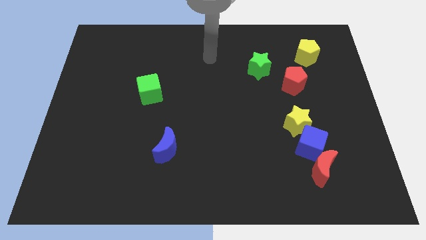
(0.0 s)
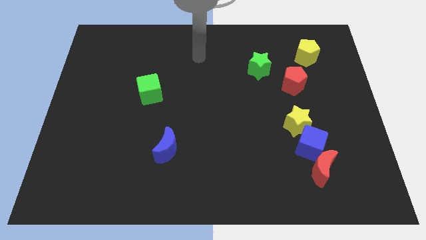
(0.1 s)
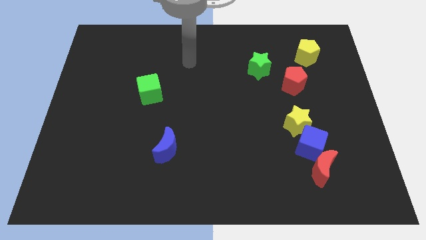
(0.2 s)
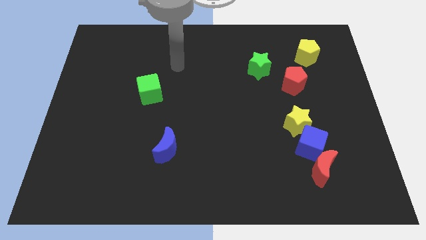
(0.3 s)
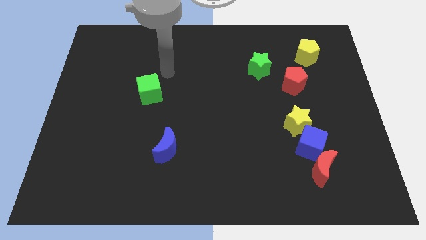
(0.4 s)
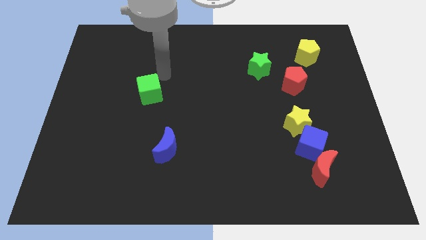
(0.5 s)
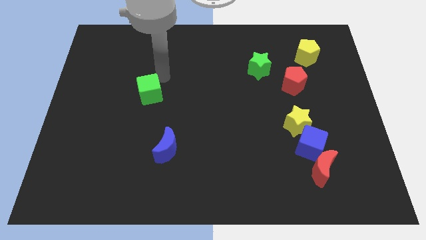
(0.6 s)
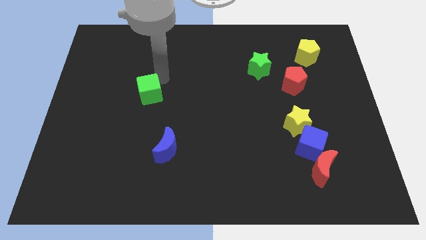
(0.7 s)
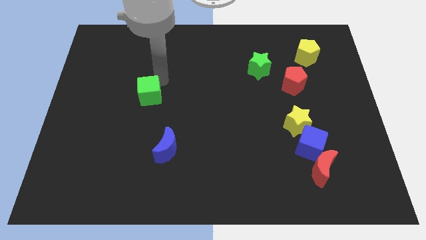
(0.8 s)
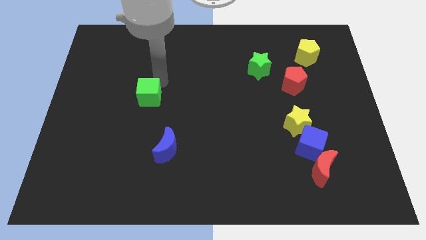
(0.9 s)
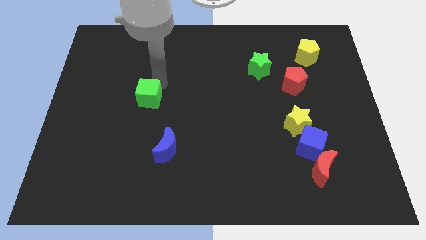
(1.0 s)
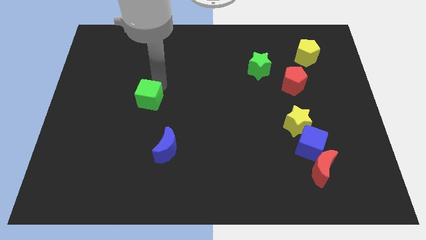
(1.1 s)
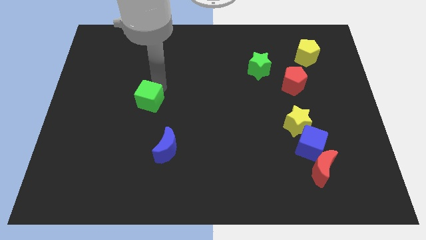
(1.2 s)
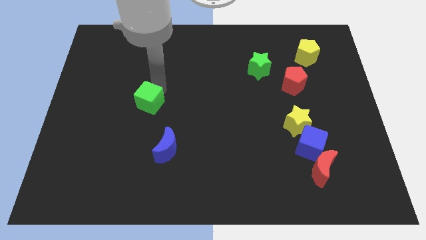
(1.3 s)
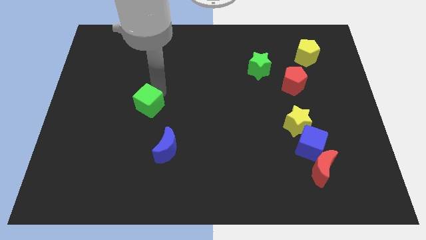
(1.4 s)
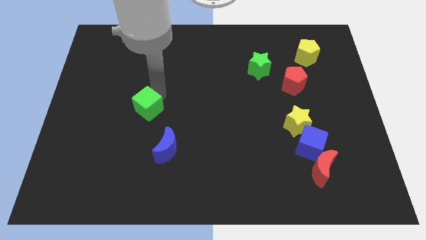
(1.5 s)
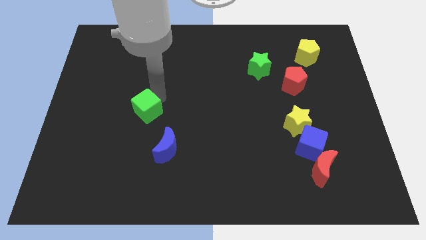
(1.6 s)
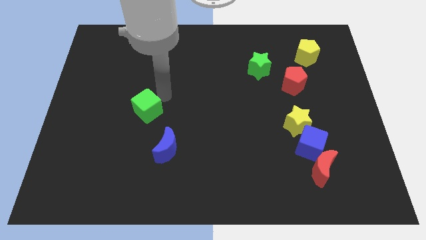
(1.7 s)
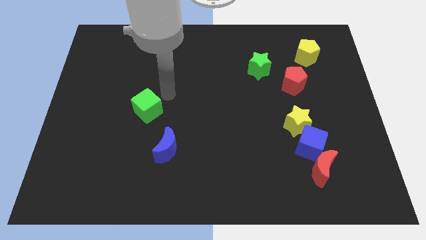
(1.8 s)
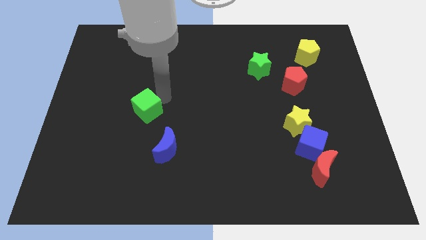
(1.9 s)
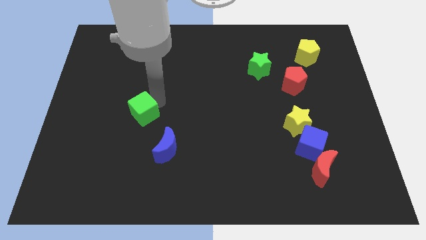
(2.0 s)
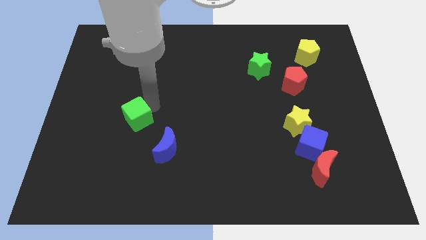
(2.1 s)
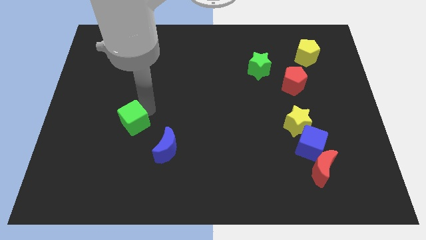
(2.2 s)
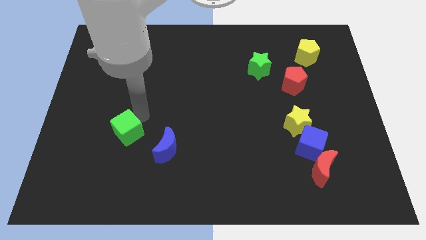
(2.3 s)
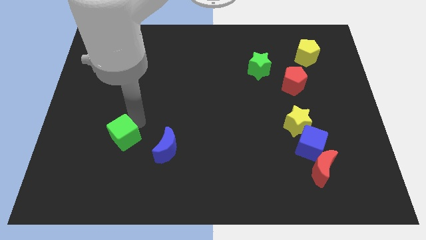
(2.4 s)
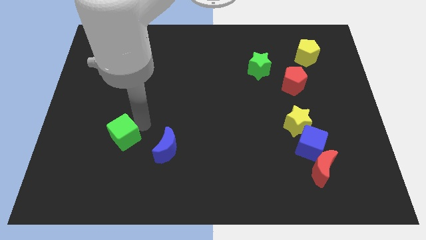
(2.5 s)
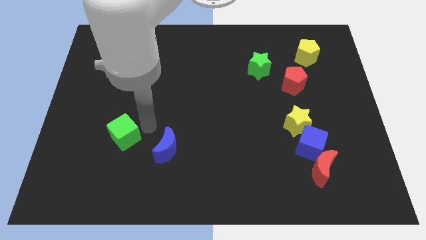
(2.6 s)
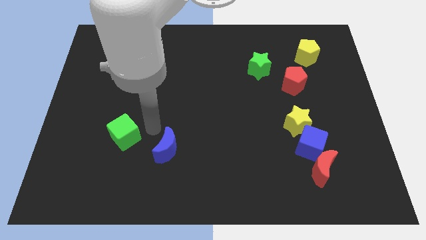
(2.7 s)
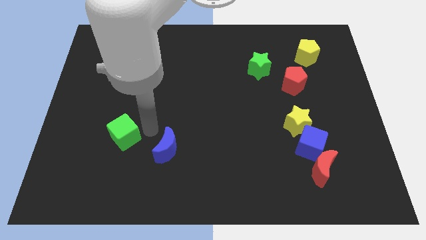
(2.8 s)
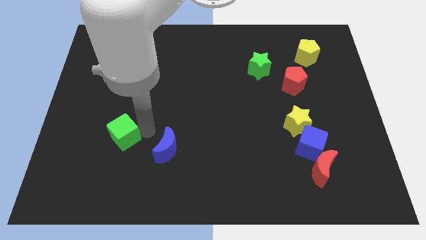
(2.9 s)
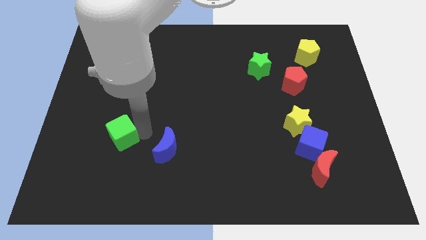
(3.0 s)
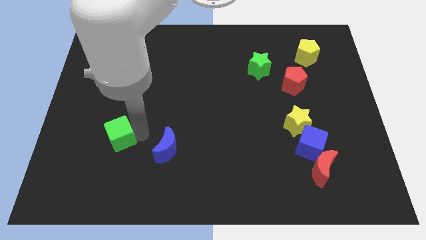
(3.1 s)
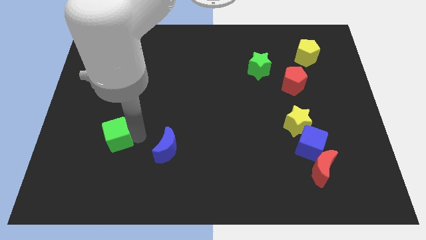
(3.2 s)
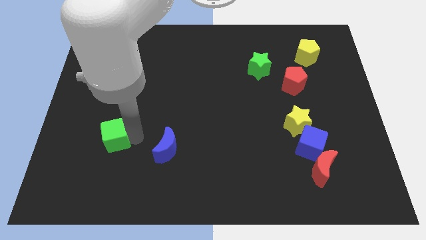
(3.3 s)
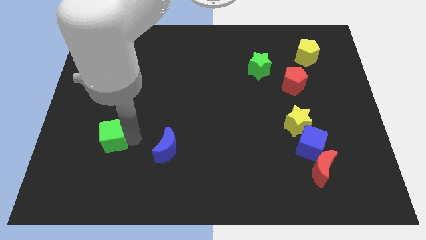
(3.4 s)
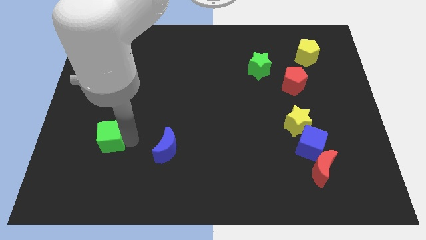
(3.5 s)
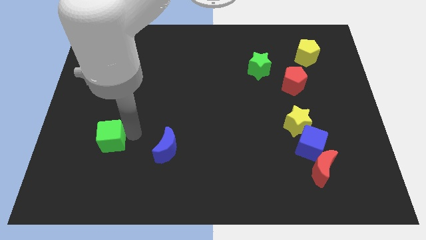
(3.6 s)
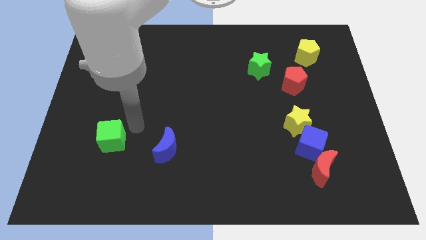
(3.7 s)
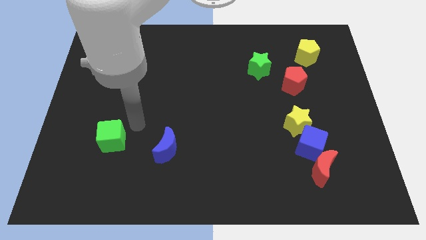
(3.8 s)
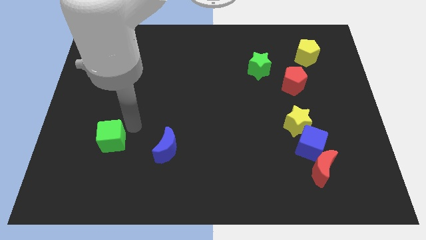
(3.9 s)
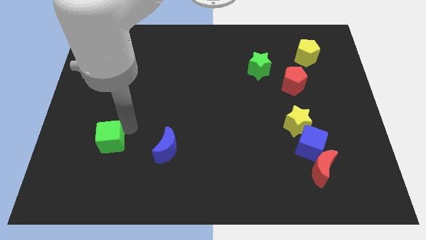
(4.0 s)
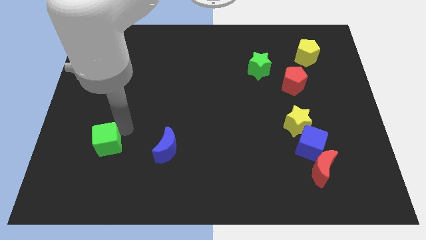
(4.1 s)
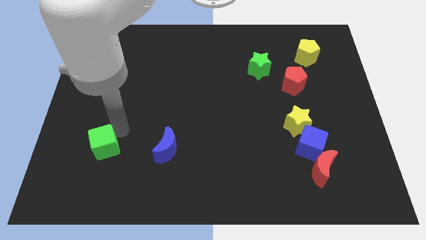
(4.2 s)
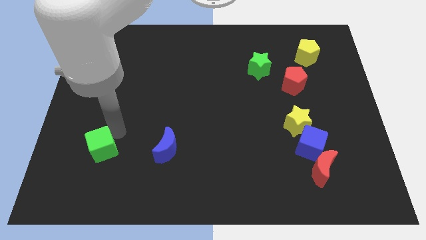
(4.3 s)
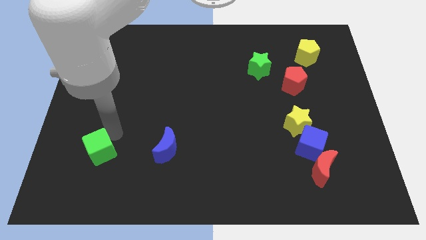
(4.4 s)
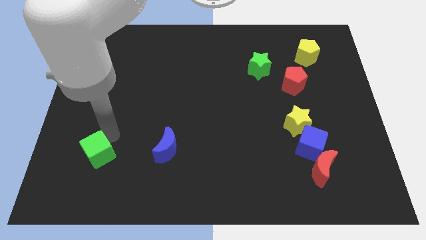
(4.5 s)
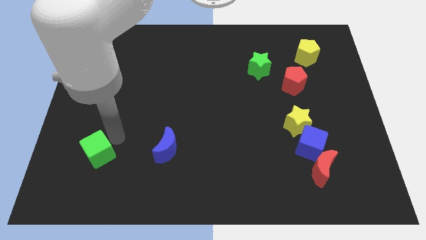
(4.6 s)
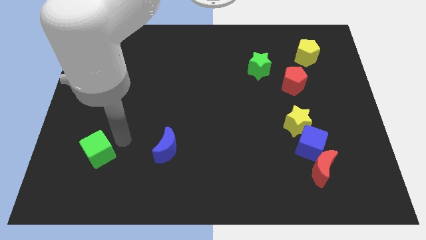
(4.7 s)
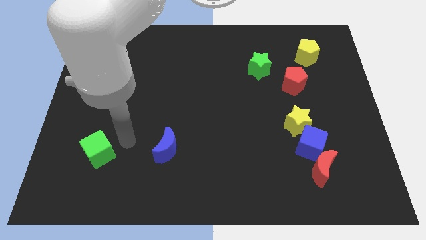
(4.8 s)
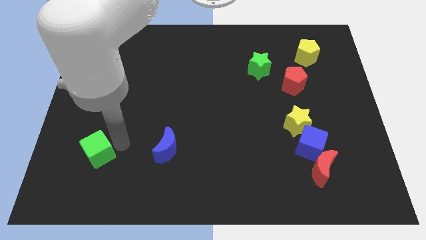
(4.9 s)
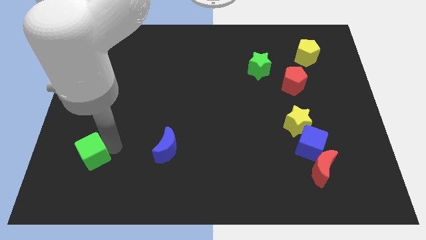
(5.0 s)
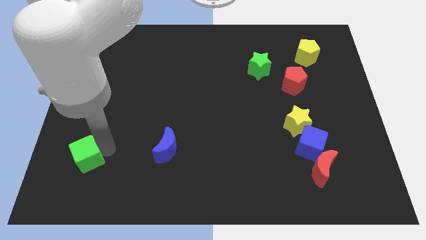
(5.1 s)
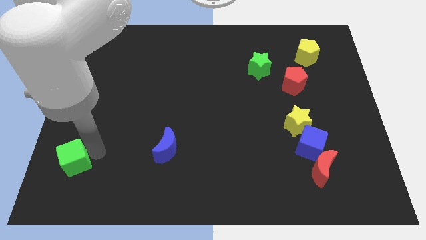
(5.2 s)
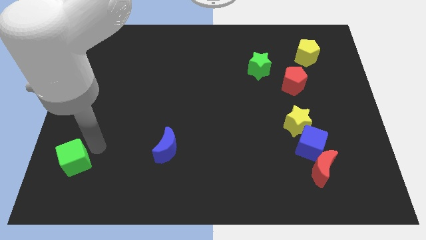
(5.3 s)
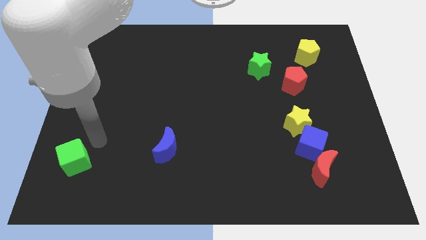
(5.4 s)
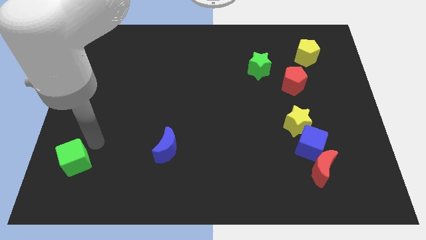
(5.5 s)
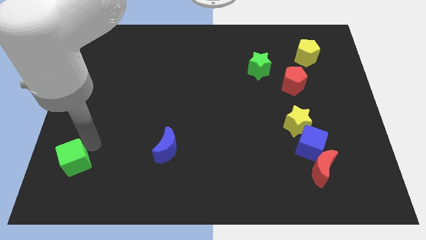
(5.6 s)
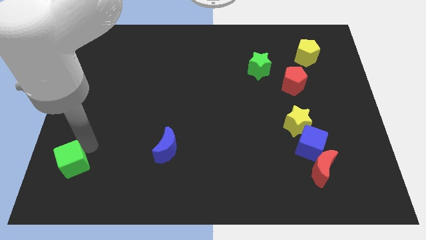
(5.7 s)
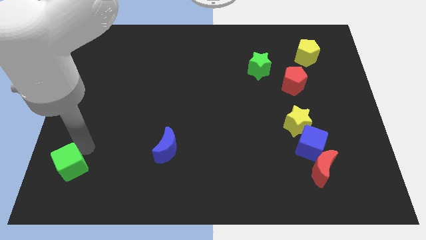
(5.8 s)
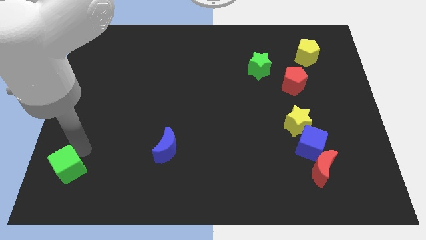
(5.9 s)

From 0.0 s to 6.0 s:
slide the green cube to the bottom left of the board

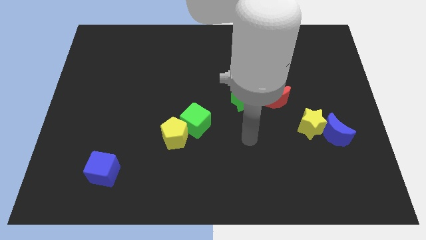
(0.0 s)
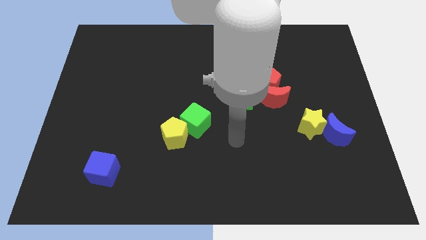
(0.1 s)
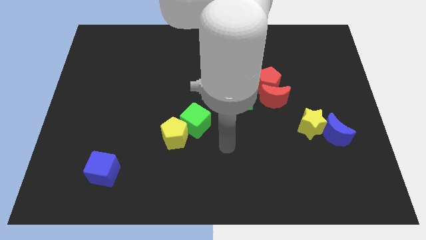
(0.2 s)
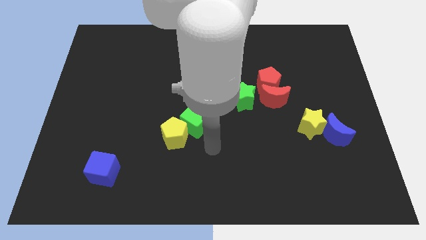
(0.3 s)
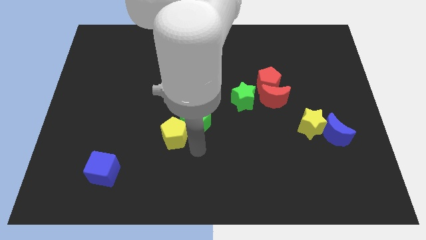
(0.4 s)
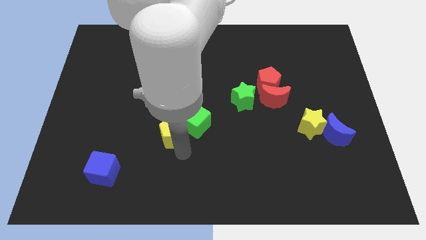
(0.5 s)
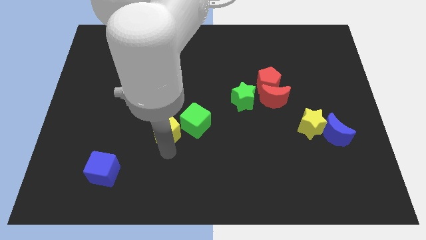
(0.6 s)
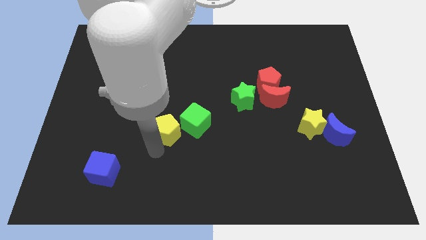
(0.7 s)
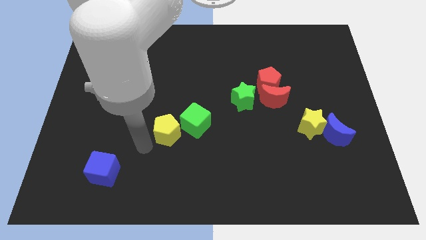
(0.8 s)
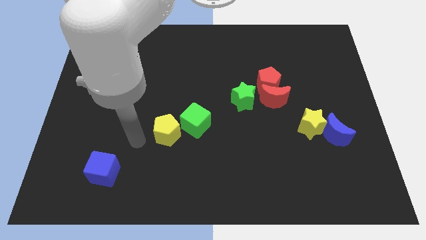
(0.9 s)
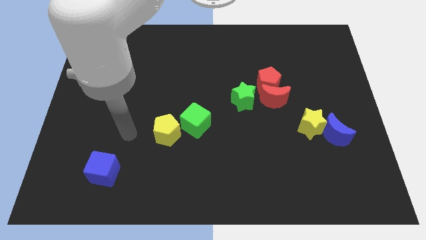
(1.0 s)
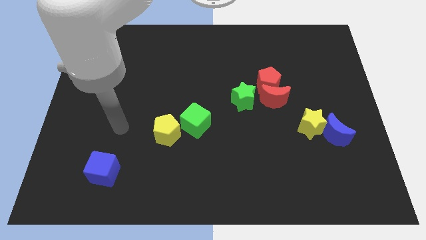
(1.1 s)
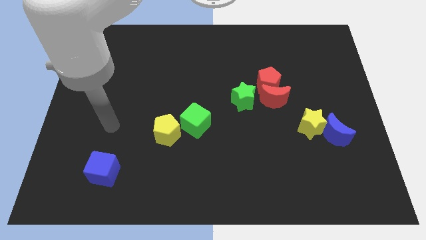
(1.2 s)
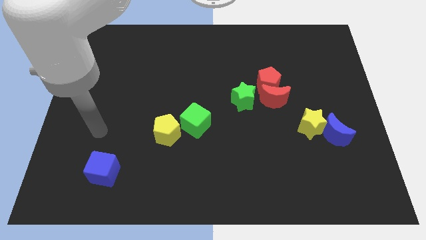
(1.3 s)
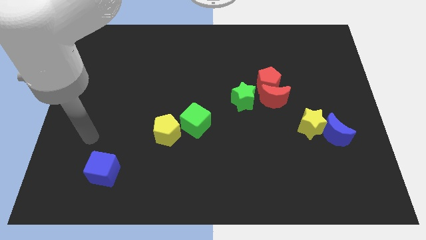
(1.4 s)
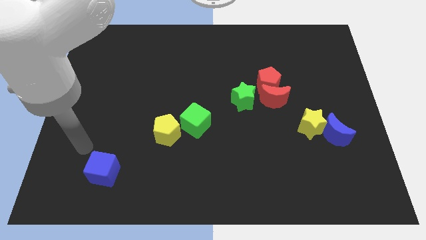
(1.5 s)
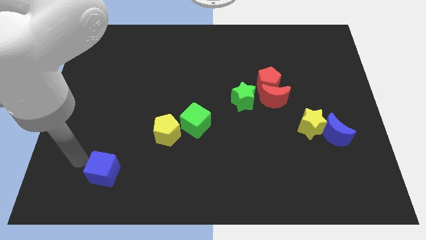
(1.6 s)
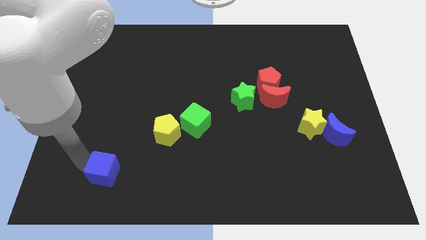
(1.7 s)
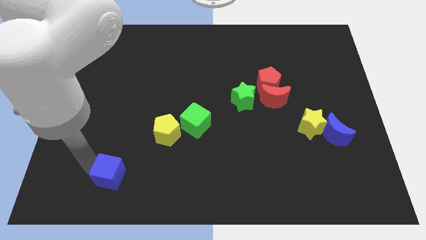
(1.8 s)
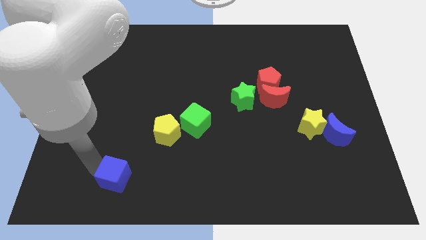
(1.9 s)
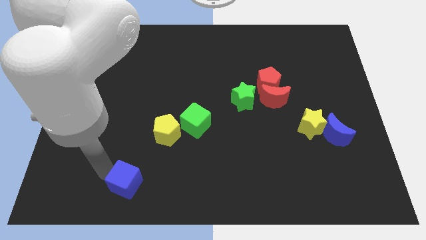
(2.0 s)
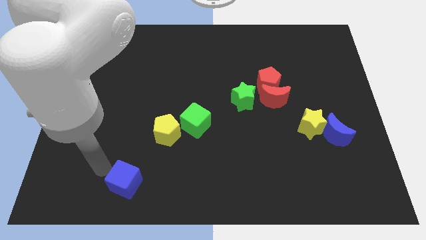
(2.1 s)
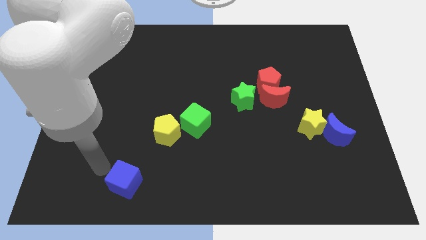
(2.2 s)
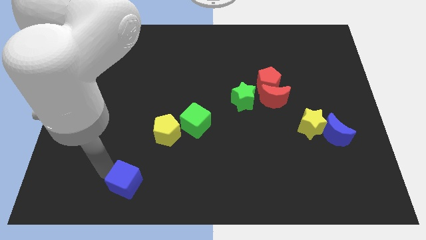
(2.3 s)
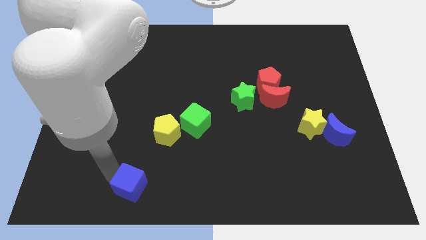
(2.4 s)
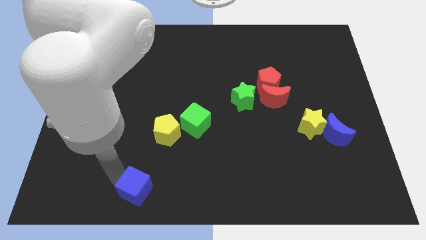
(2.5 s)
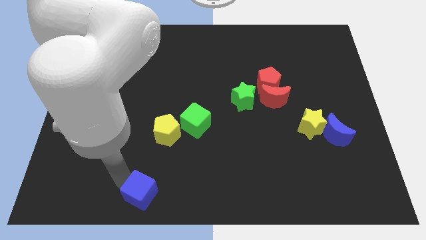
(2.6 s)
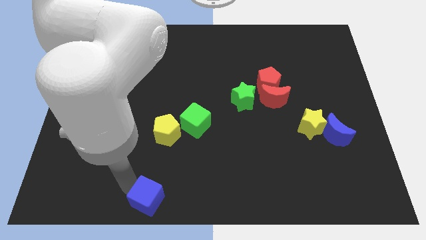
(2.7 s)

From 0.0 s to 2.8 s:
put the blue cube to the bottom side
